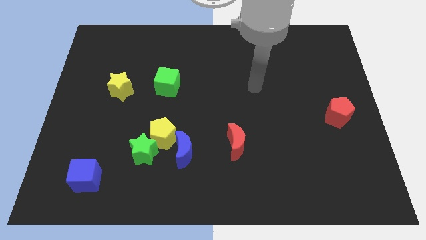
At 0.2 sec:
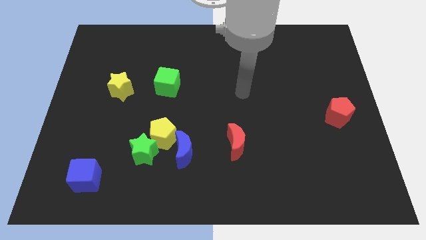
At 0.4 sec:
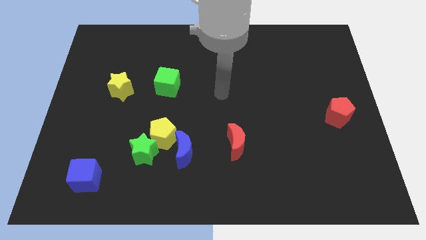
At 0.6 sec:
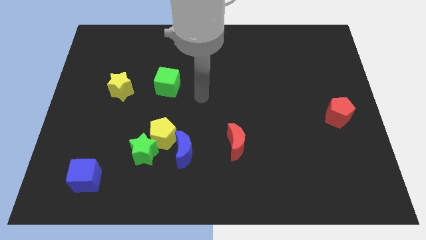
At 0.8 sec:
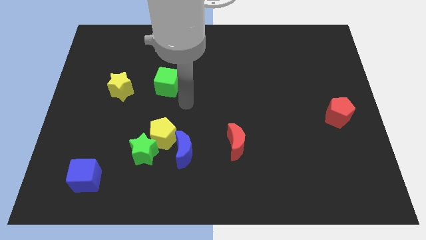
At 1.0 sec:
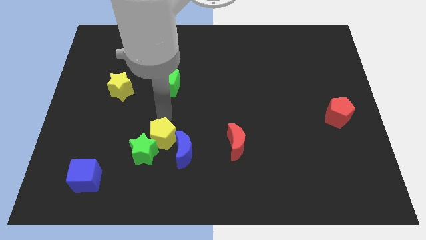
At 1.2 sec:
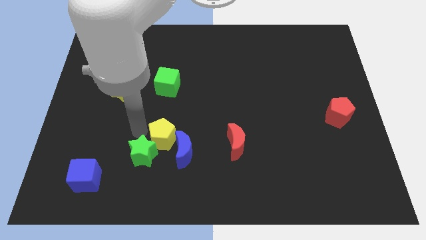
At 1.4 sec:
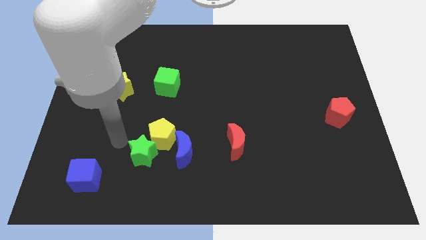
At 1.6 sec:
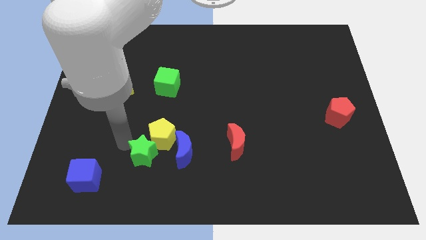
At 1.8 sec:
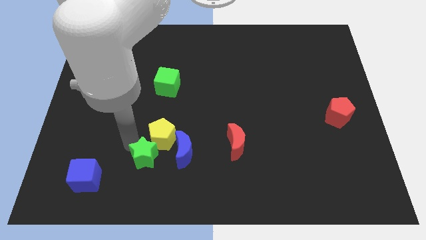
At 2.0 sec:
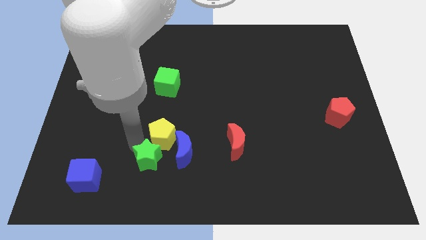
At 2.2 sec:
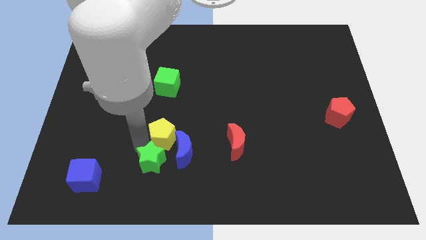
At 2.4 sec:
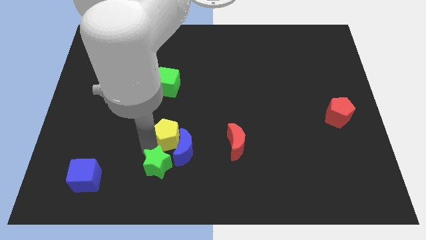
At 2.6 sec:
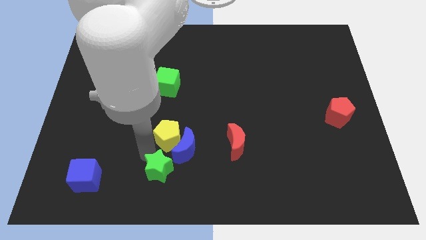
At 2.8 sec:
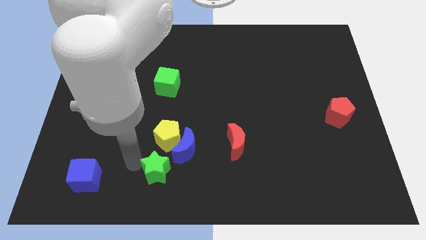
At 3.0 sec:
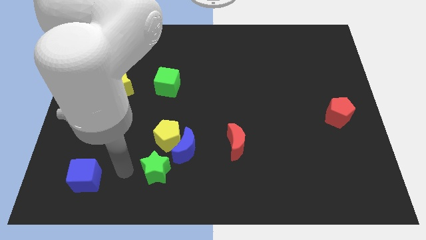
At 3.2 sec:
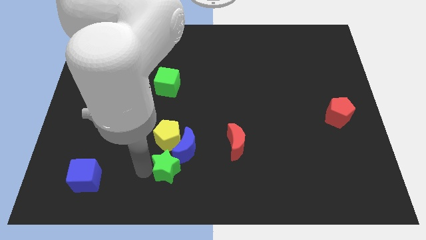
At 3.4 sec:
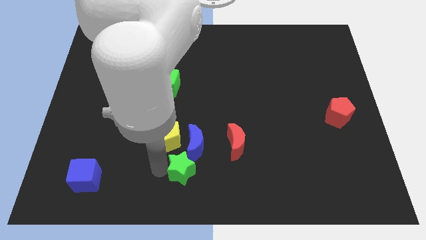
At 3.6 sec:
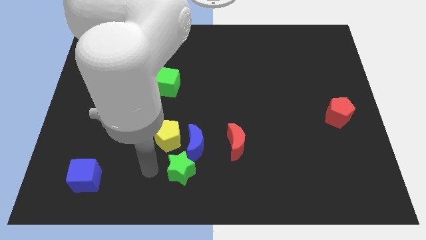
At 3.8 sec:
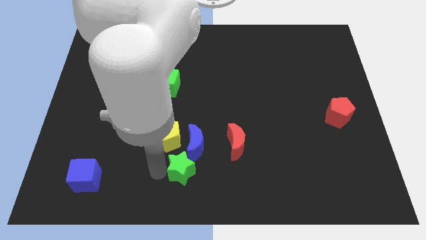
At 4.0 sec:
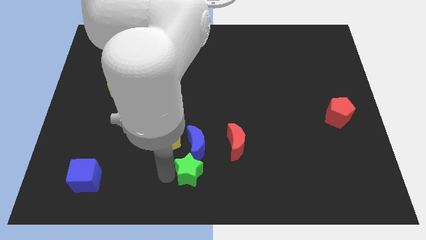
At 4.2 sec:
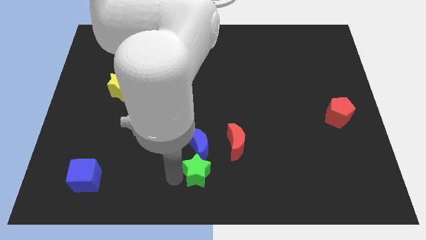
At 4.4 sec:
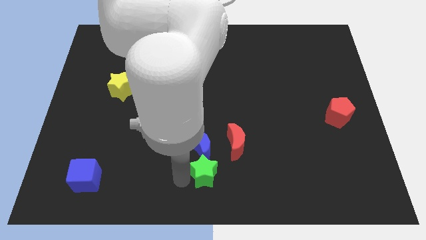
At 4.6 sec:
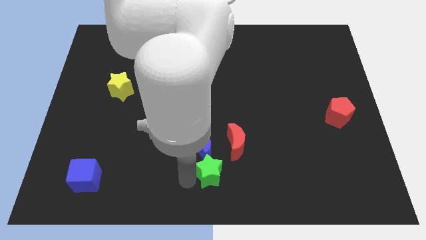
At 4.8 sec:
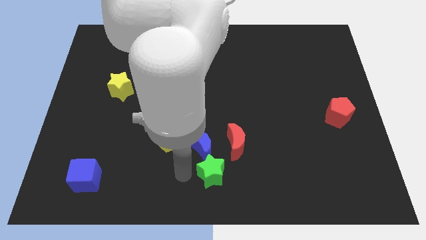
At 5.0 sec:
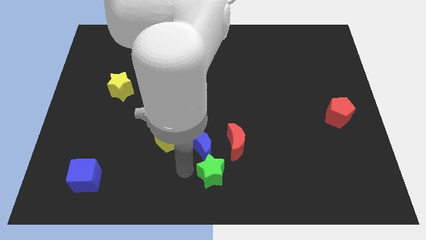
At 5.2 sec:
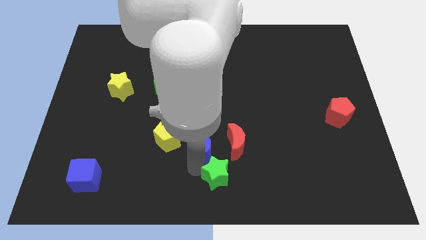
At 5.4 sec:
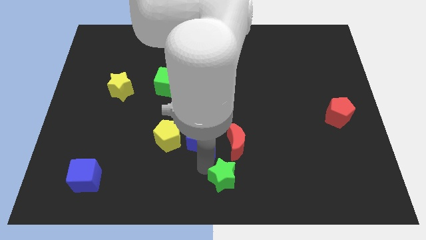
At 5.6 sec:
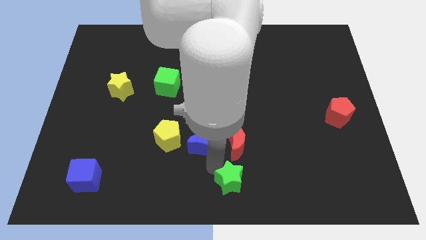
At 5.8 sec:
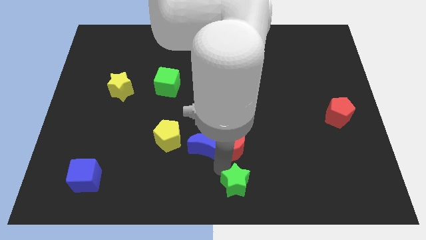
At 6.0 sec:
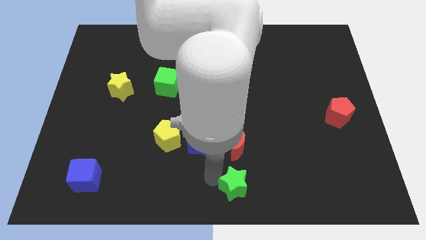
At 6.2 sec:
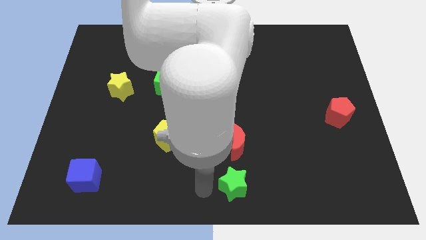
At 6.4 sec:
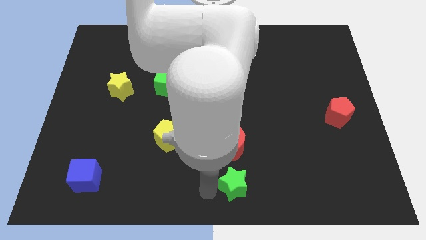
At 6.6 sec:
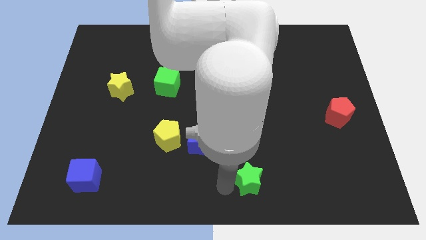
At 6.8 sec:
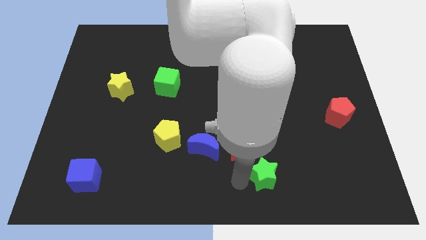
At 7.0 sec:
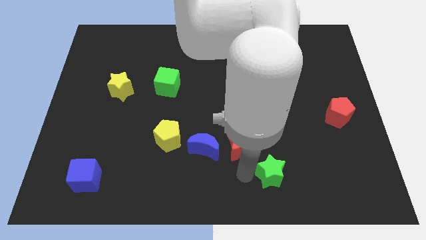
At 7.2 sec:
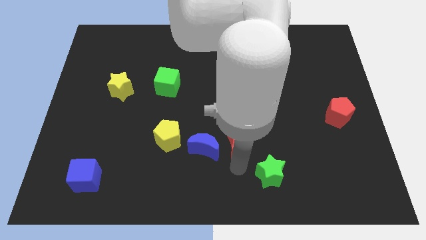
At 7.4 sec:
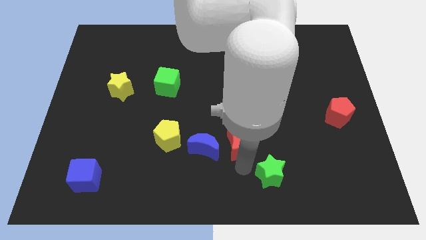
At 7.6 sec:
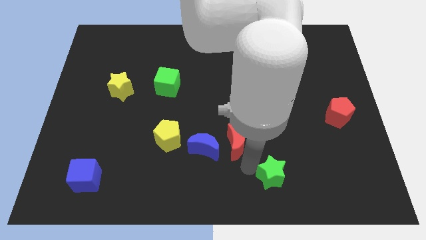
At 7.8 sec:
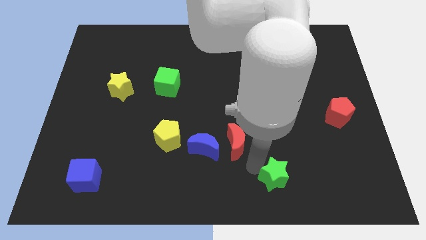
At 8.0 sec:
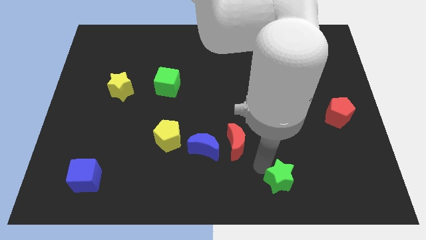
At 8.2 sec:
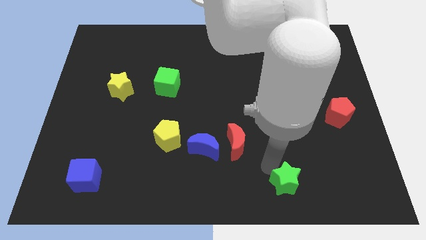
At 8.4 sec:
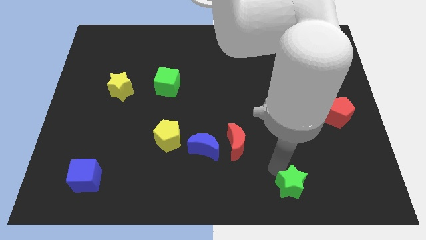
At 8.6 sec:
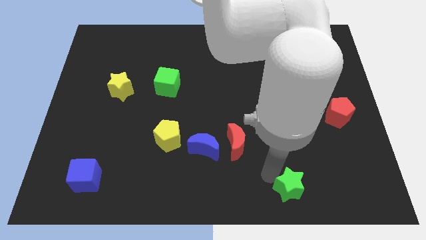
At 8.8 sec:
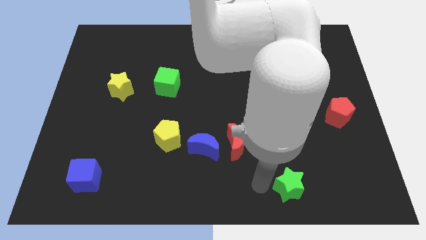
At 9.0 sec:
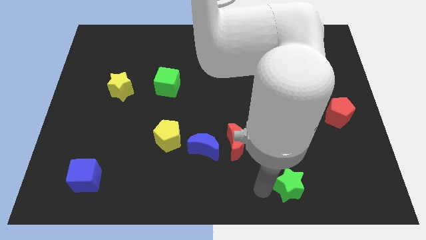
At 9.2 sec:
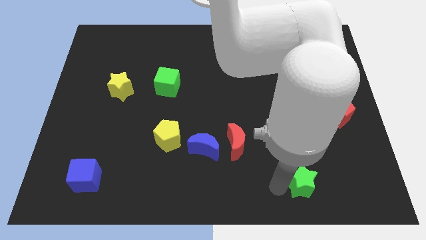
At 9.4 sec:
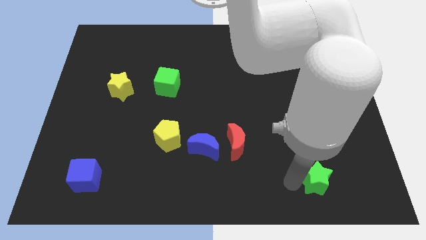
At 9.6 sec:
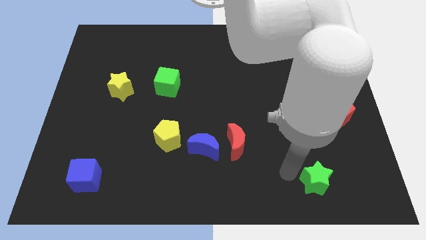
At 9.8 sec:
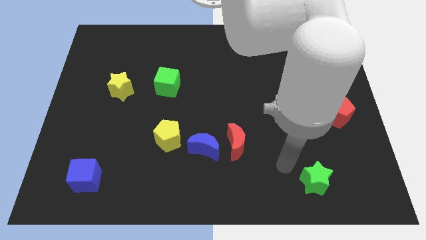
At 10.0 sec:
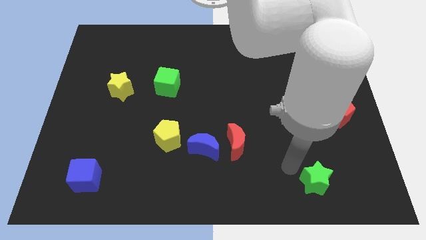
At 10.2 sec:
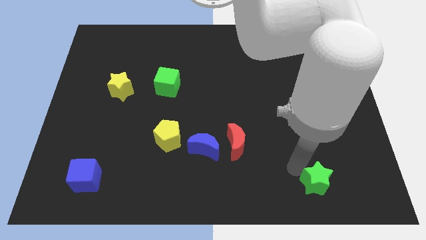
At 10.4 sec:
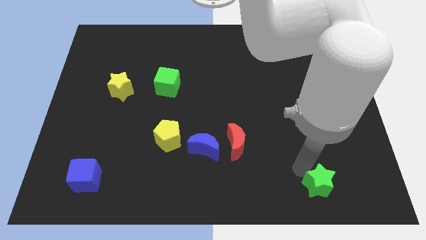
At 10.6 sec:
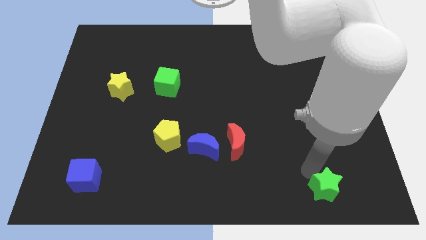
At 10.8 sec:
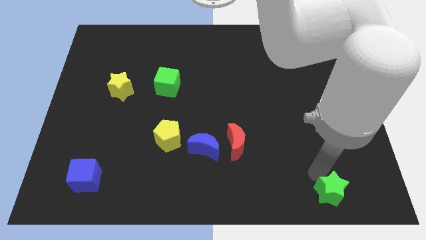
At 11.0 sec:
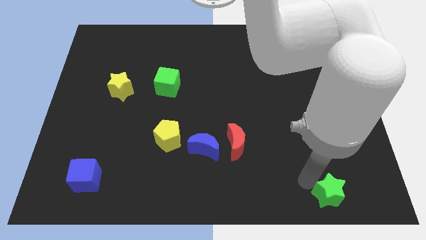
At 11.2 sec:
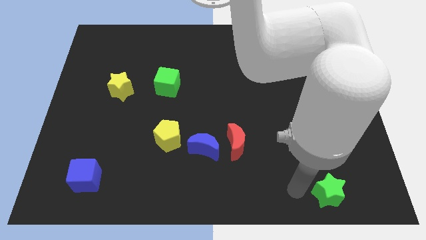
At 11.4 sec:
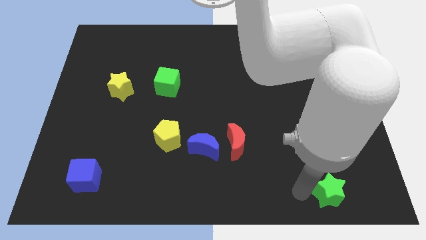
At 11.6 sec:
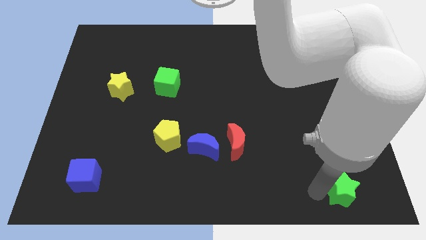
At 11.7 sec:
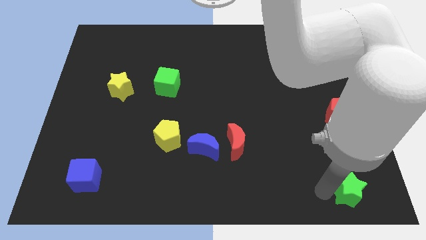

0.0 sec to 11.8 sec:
put the green star to the bottom right of the board
